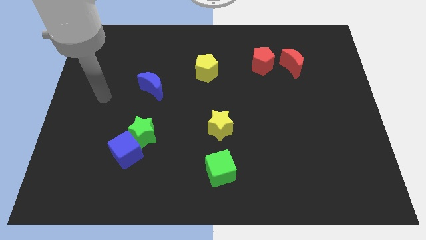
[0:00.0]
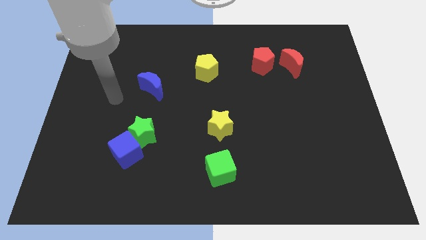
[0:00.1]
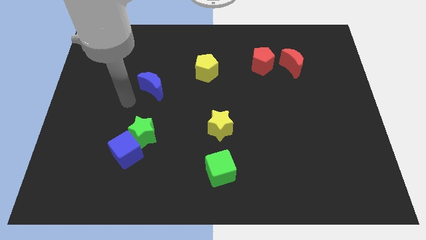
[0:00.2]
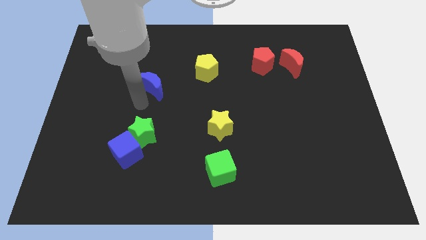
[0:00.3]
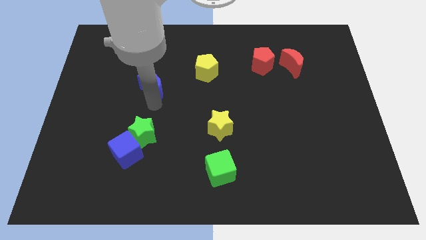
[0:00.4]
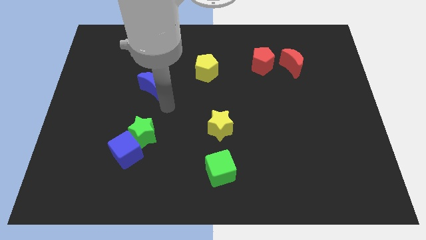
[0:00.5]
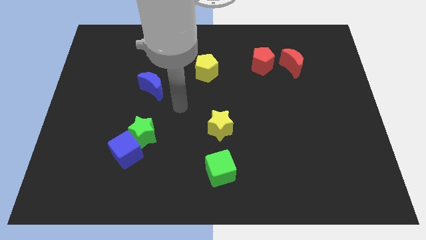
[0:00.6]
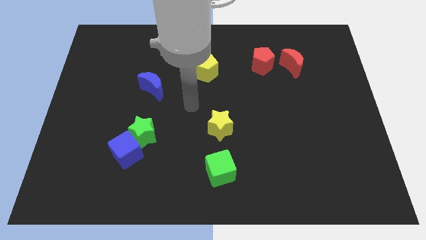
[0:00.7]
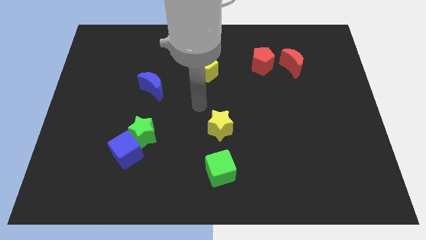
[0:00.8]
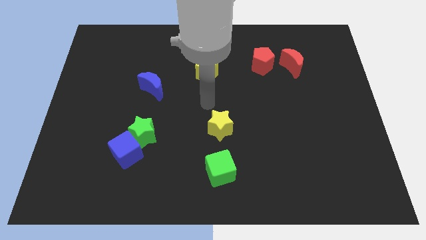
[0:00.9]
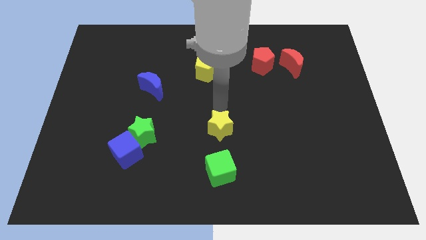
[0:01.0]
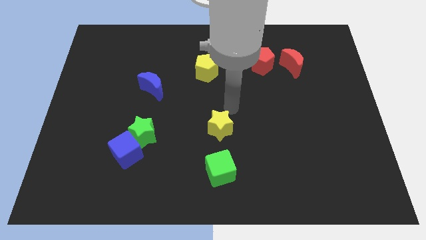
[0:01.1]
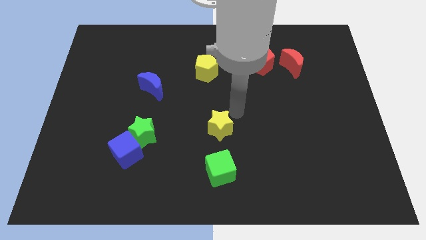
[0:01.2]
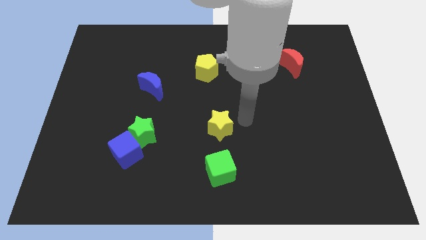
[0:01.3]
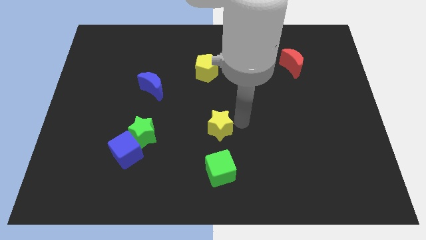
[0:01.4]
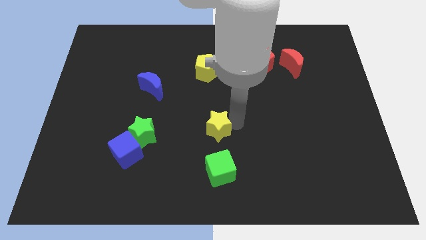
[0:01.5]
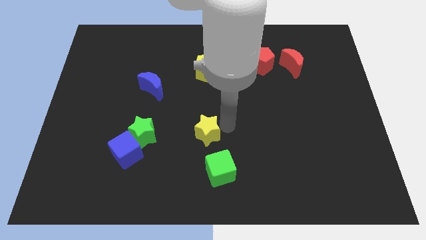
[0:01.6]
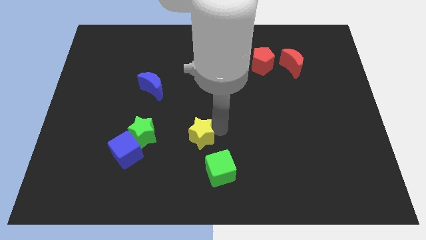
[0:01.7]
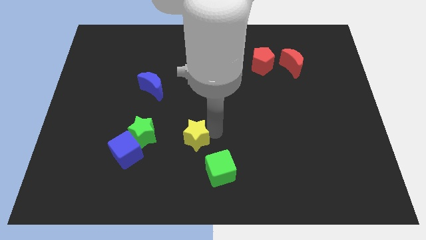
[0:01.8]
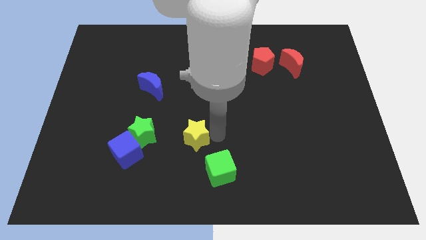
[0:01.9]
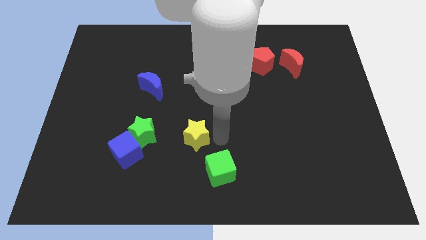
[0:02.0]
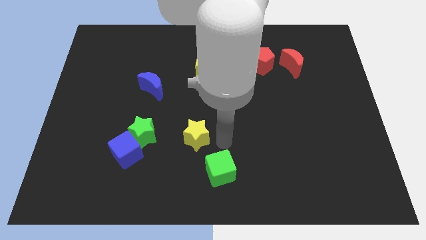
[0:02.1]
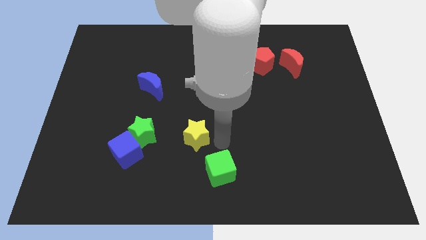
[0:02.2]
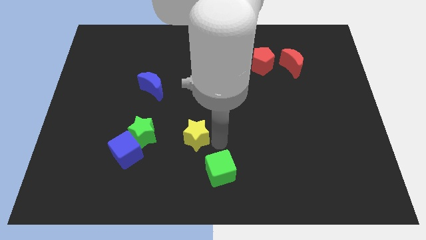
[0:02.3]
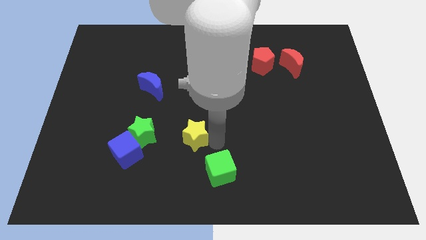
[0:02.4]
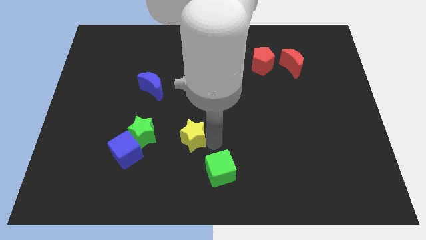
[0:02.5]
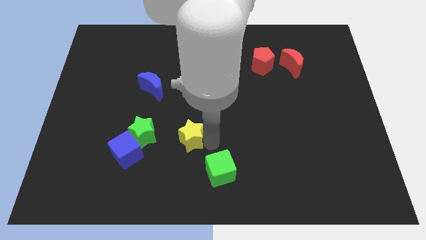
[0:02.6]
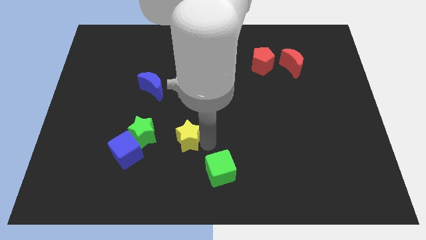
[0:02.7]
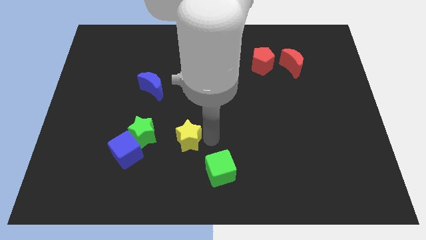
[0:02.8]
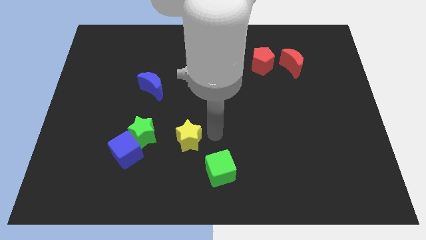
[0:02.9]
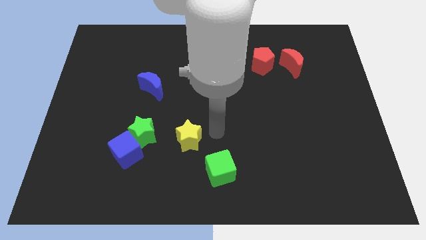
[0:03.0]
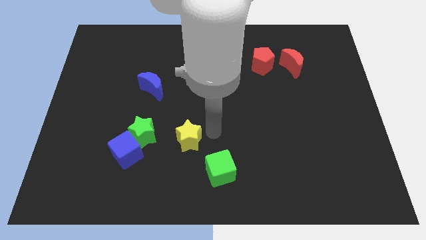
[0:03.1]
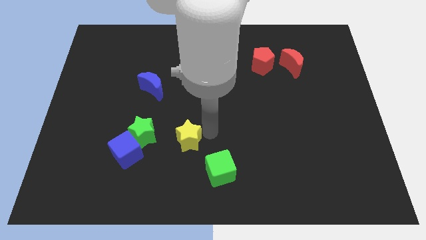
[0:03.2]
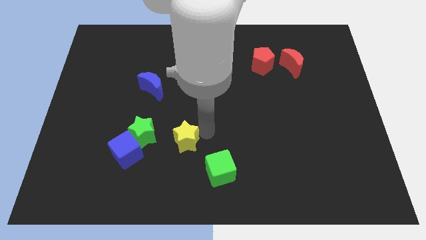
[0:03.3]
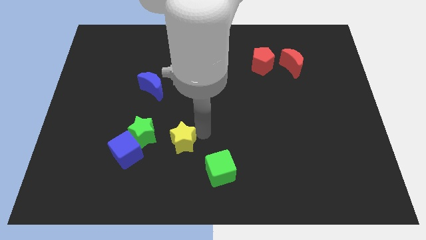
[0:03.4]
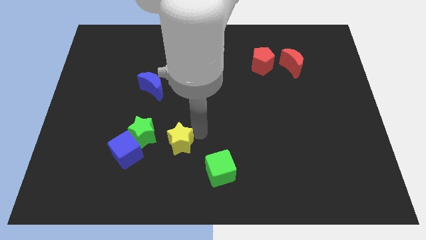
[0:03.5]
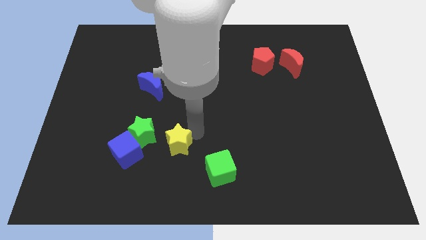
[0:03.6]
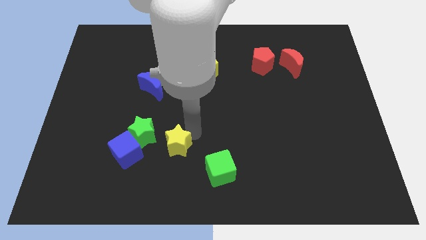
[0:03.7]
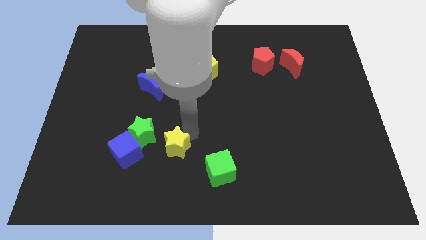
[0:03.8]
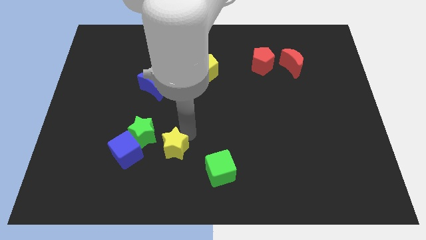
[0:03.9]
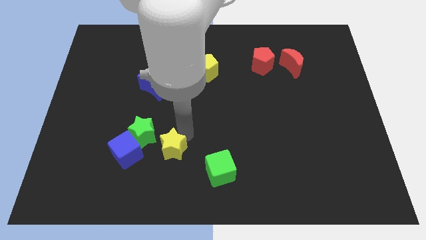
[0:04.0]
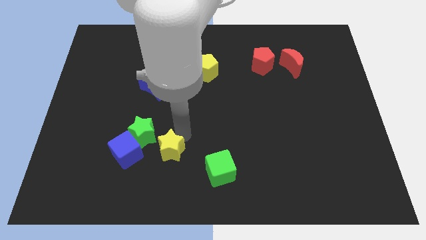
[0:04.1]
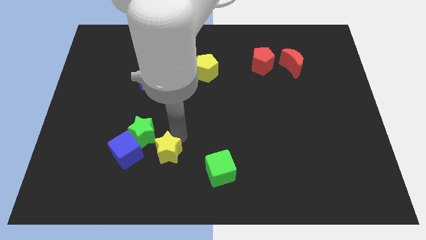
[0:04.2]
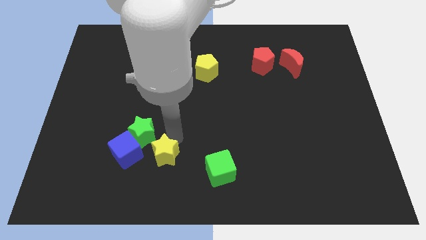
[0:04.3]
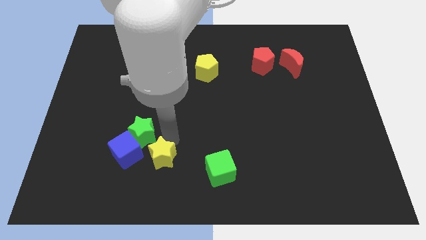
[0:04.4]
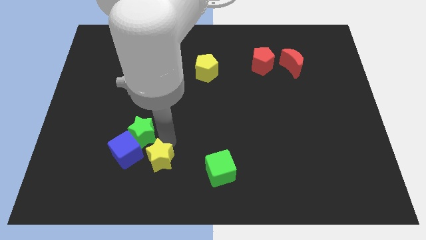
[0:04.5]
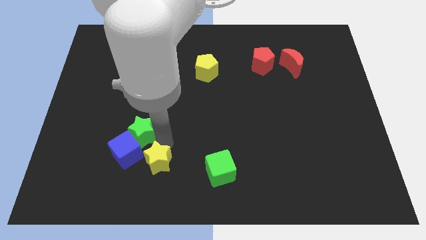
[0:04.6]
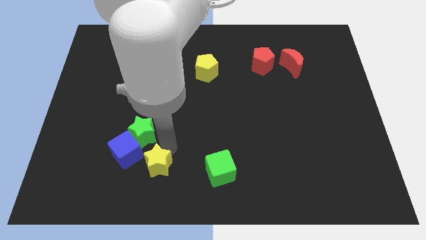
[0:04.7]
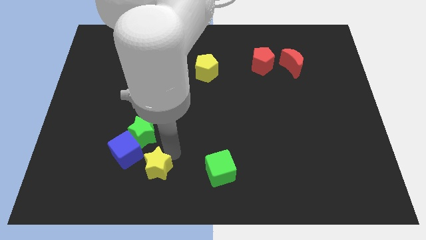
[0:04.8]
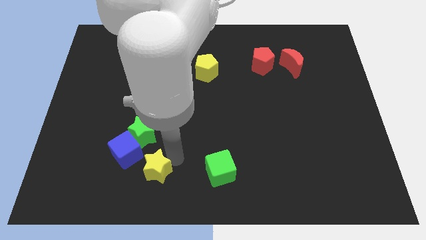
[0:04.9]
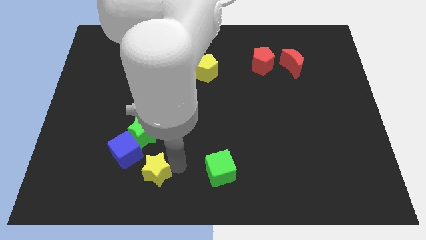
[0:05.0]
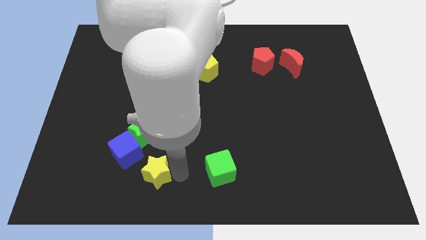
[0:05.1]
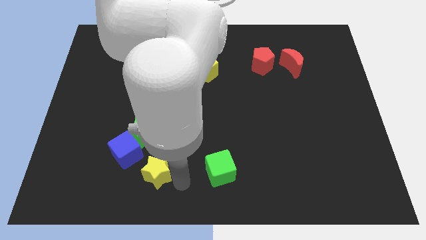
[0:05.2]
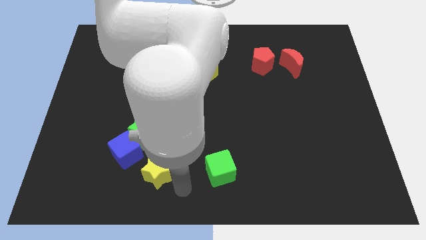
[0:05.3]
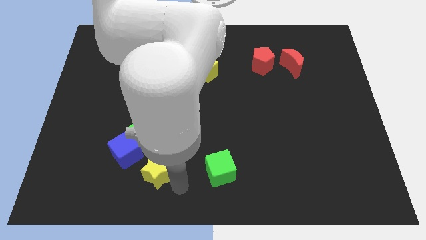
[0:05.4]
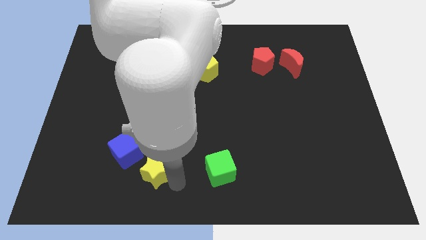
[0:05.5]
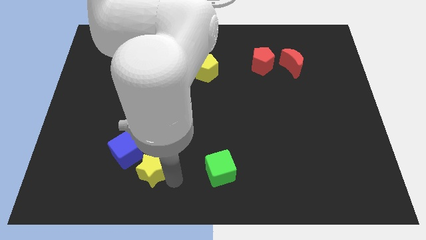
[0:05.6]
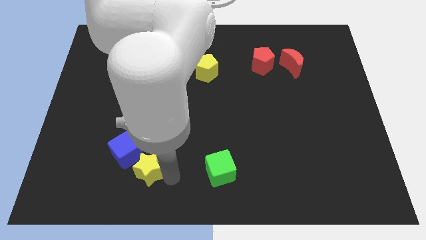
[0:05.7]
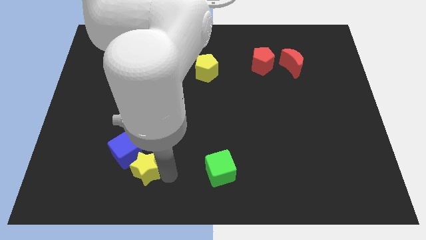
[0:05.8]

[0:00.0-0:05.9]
put the yellow star to the blue cube
